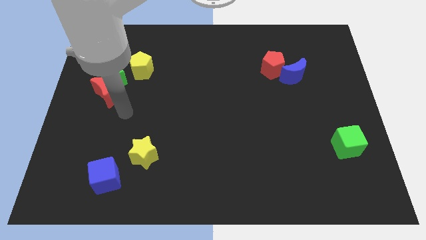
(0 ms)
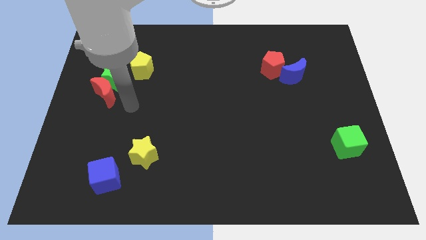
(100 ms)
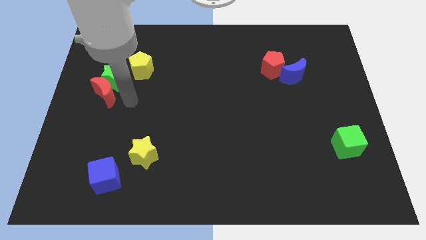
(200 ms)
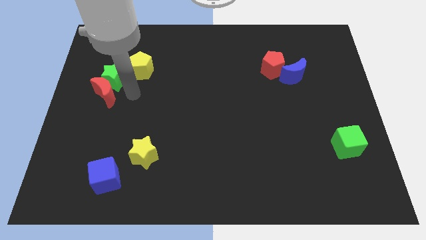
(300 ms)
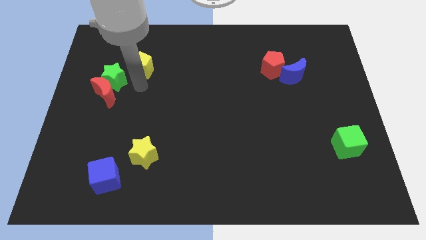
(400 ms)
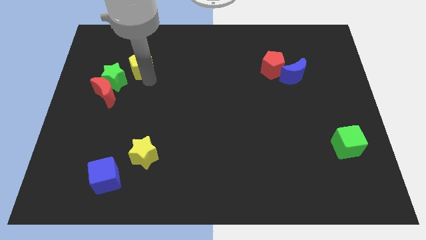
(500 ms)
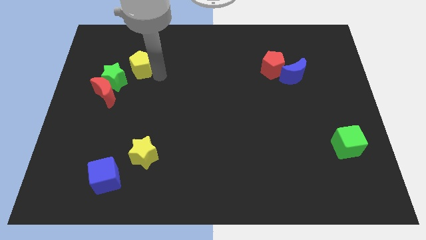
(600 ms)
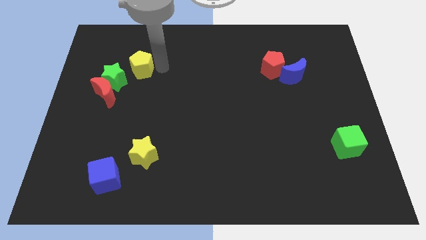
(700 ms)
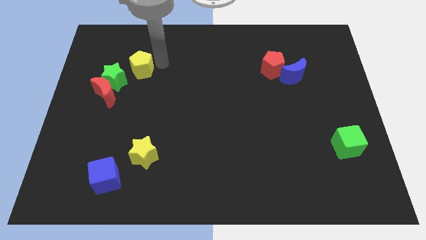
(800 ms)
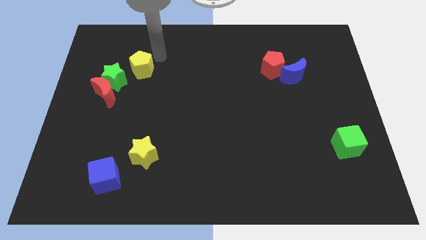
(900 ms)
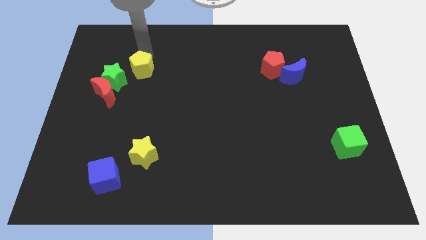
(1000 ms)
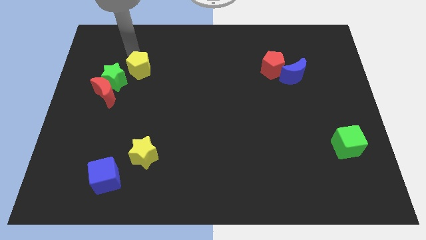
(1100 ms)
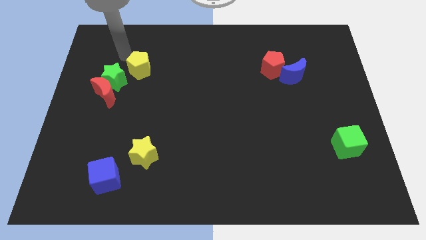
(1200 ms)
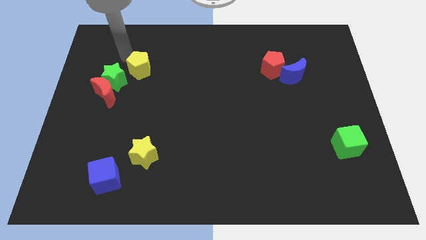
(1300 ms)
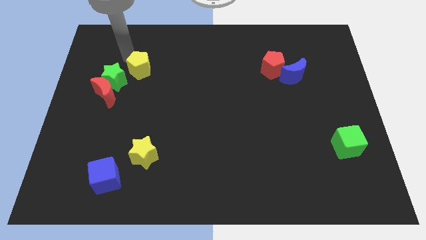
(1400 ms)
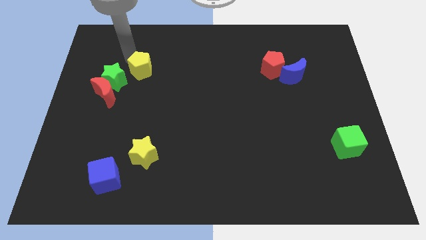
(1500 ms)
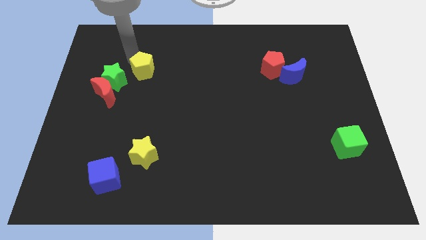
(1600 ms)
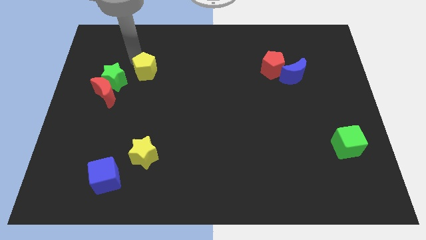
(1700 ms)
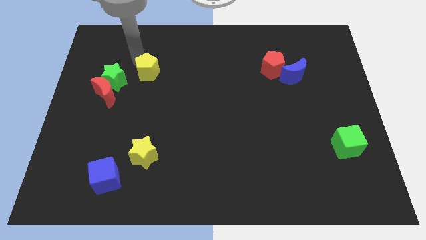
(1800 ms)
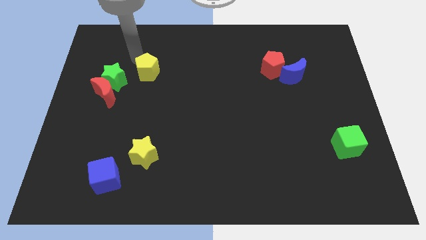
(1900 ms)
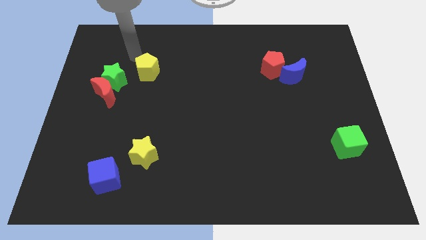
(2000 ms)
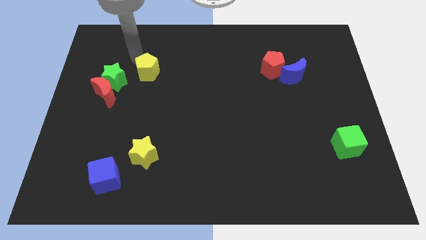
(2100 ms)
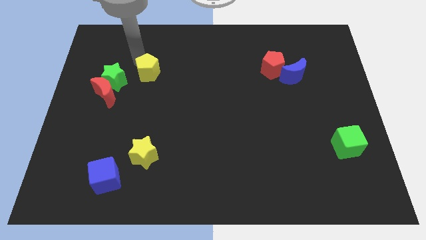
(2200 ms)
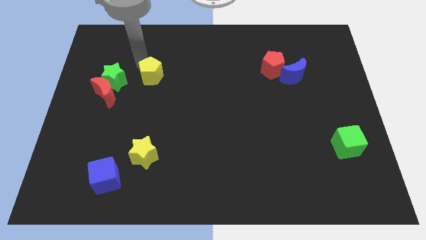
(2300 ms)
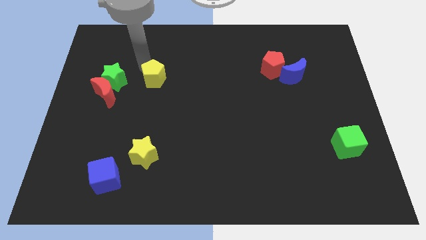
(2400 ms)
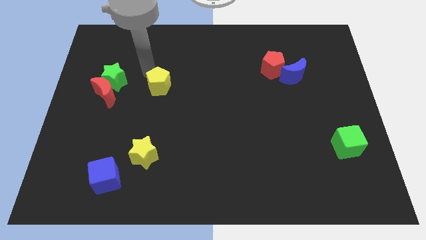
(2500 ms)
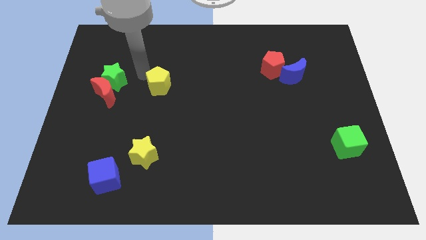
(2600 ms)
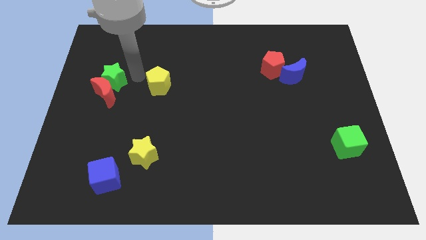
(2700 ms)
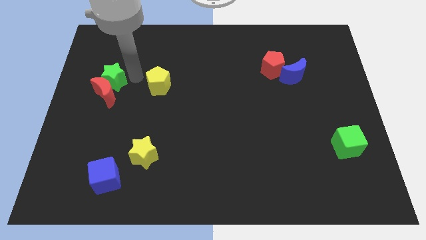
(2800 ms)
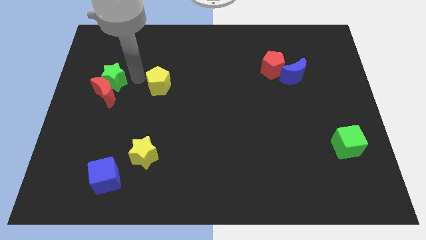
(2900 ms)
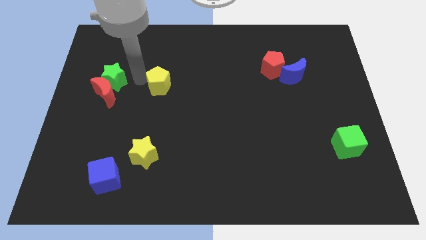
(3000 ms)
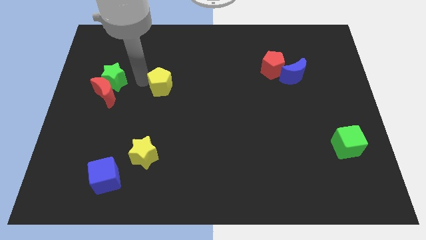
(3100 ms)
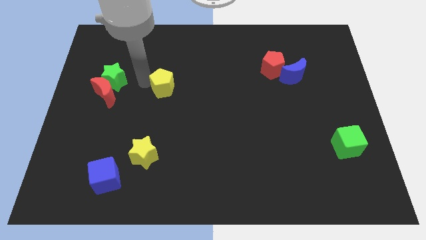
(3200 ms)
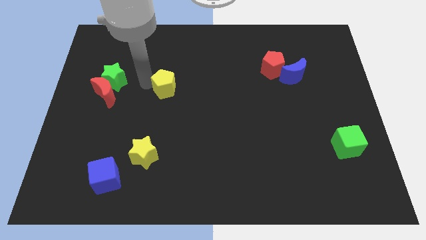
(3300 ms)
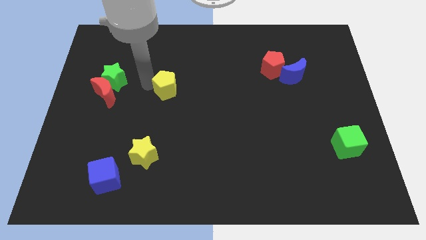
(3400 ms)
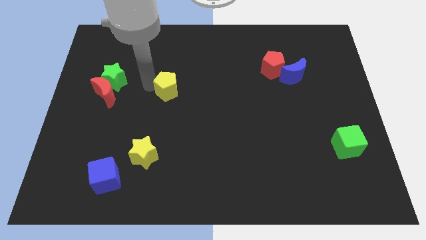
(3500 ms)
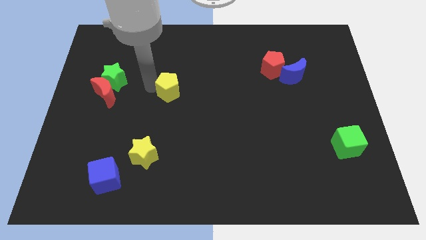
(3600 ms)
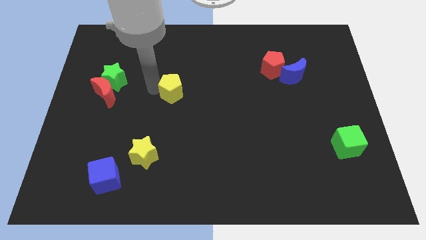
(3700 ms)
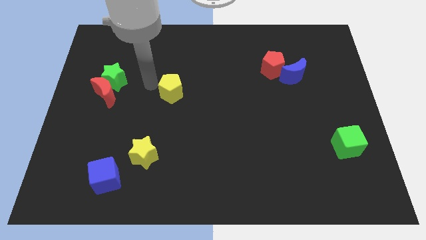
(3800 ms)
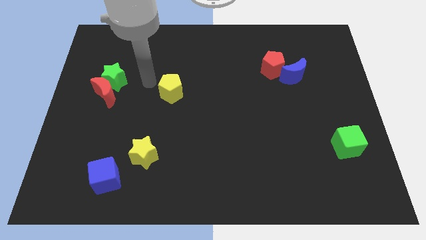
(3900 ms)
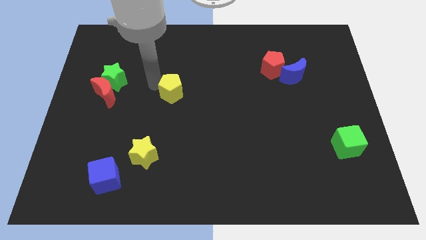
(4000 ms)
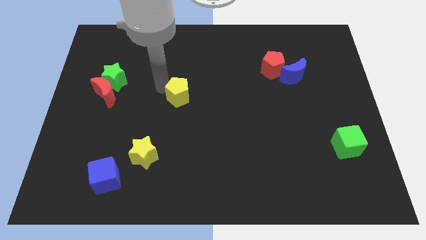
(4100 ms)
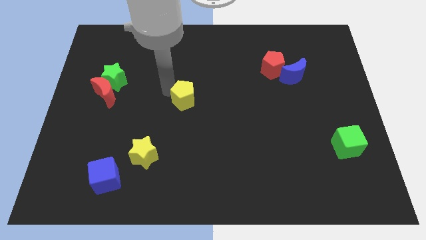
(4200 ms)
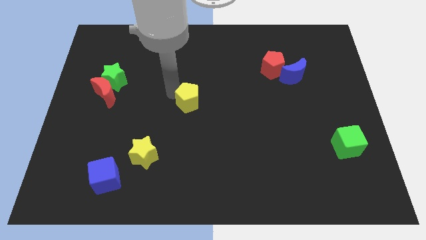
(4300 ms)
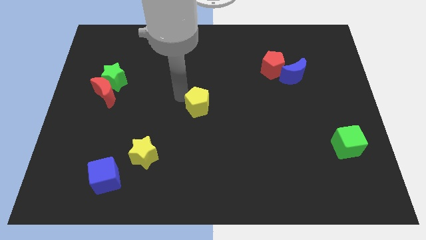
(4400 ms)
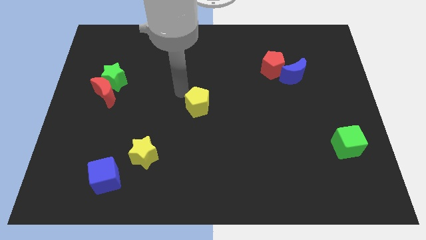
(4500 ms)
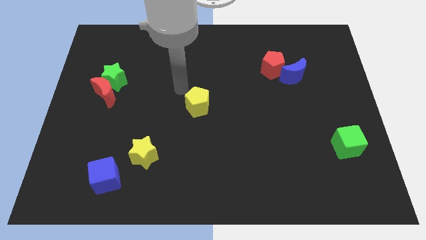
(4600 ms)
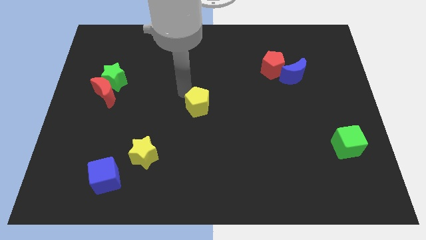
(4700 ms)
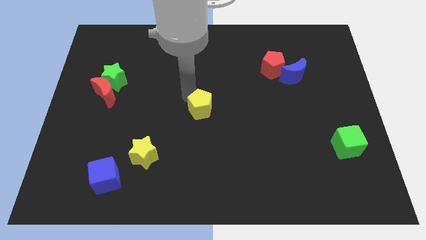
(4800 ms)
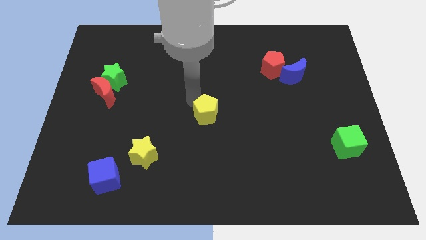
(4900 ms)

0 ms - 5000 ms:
slide the yellow pentagon down and then to the right

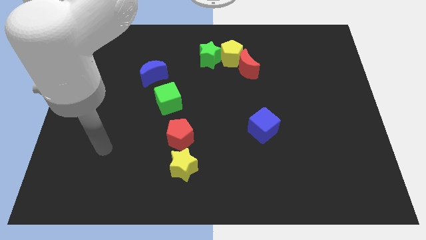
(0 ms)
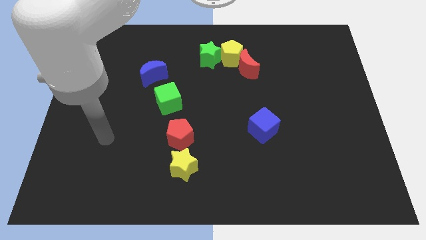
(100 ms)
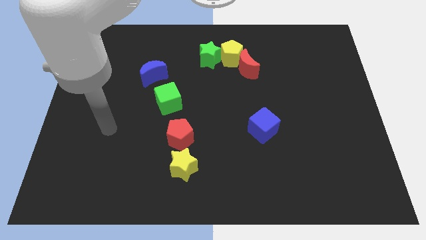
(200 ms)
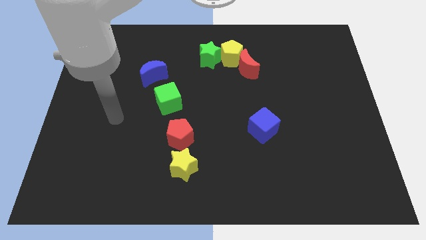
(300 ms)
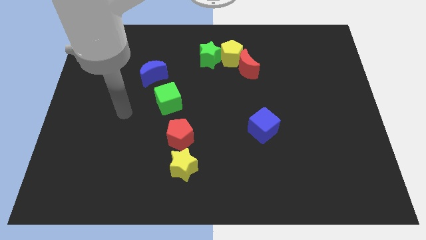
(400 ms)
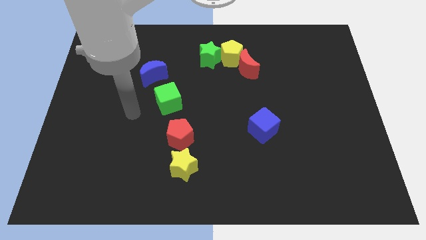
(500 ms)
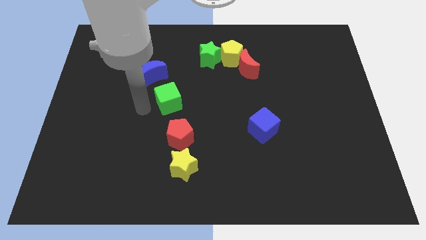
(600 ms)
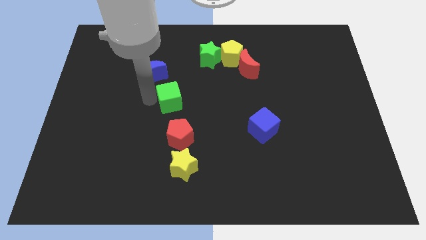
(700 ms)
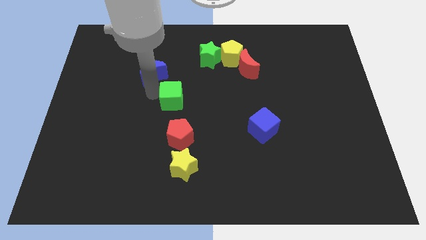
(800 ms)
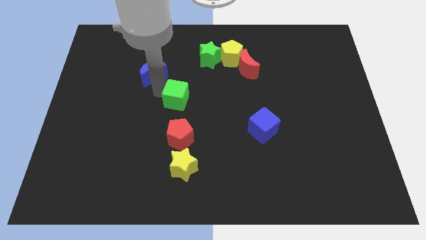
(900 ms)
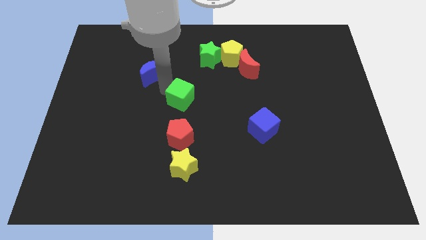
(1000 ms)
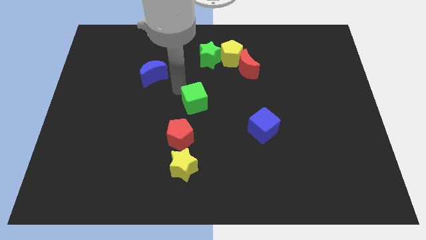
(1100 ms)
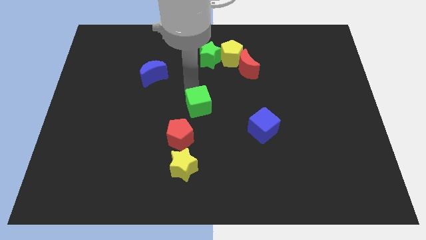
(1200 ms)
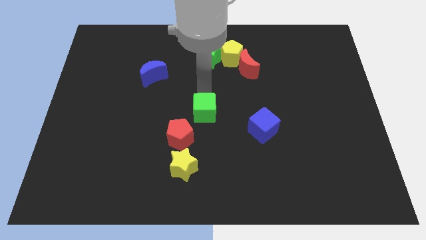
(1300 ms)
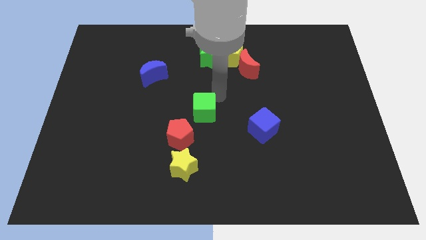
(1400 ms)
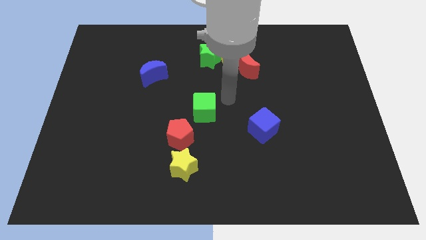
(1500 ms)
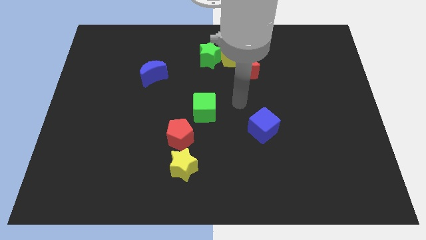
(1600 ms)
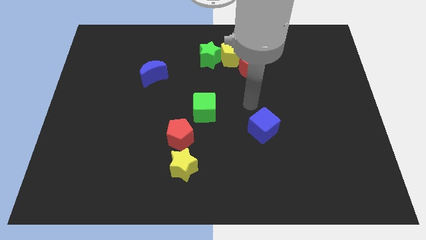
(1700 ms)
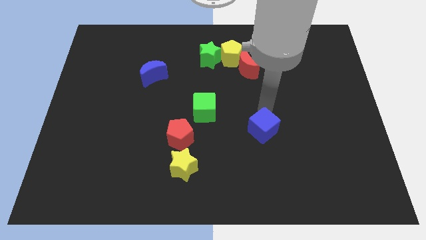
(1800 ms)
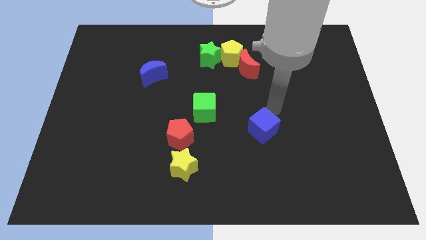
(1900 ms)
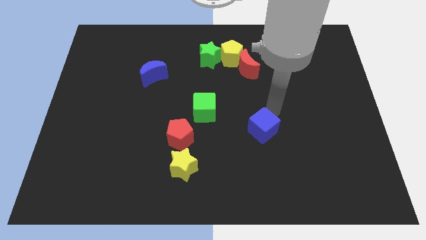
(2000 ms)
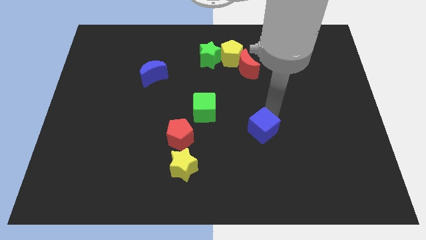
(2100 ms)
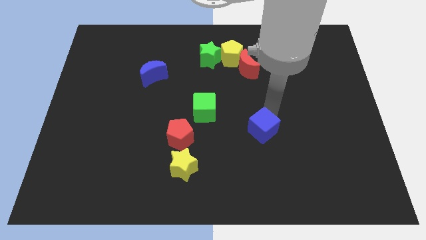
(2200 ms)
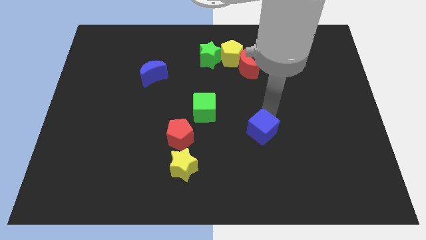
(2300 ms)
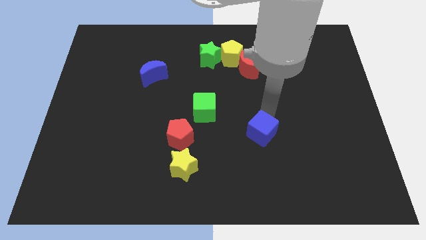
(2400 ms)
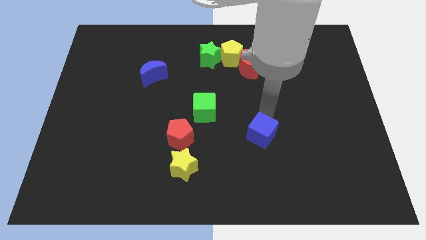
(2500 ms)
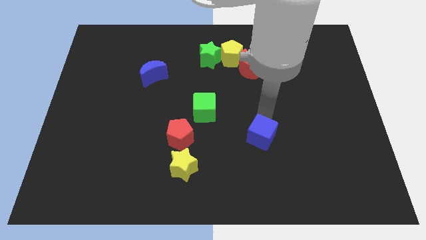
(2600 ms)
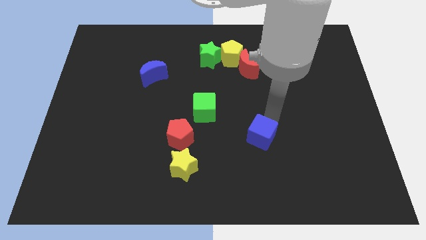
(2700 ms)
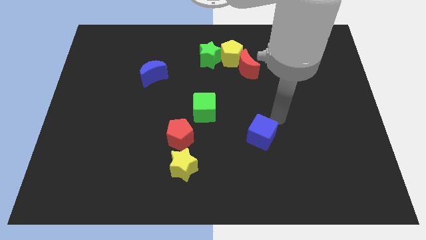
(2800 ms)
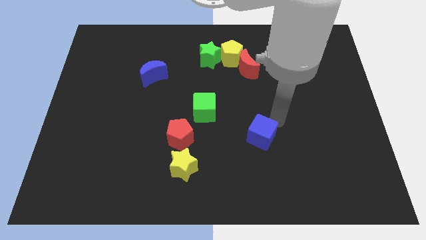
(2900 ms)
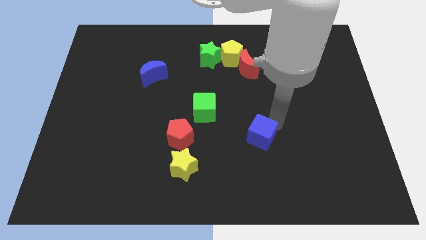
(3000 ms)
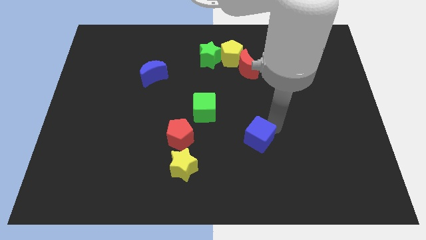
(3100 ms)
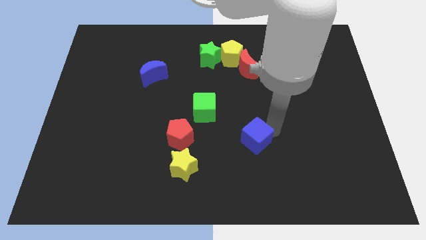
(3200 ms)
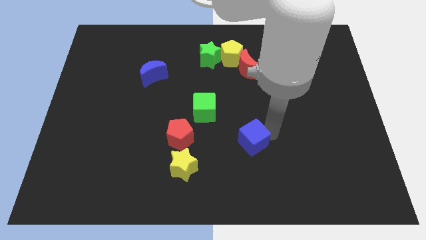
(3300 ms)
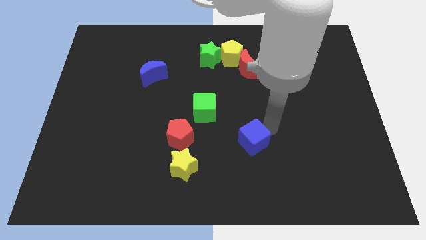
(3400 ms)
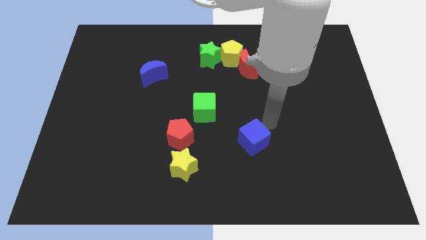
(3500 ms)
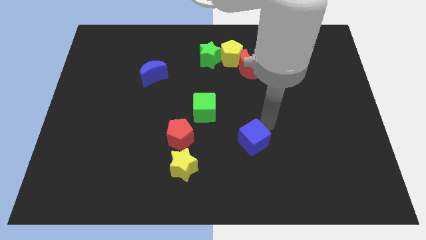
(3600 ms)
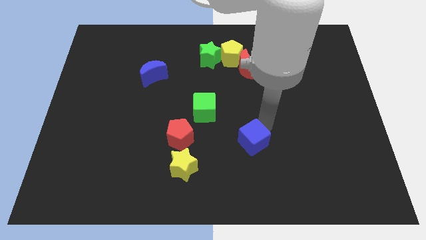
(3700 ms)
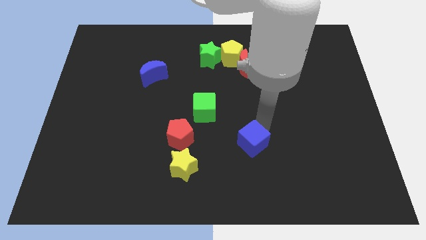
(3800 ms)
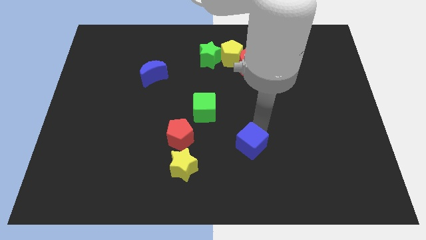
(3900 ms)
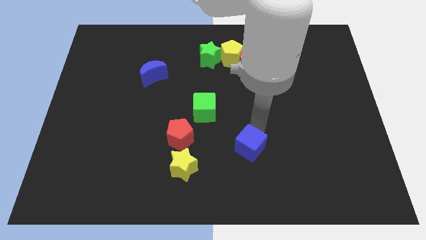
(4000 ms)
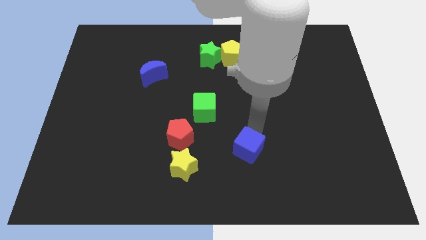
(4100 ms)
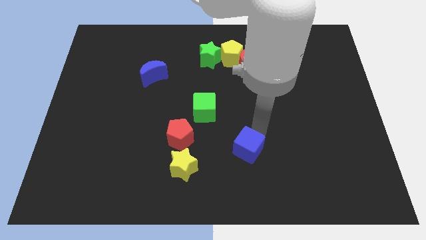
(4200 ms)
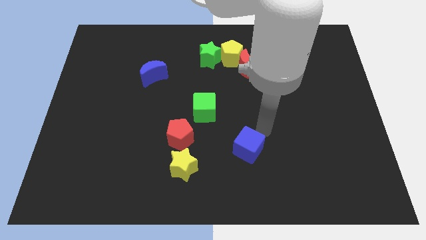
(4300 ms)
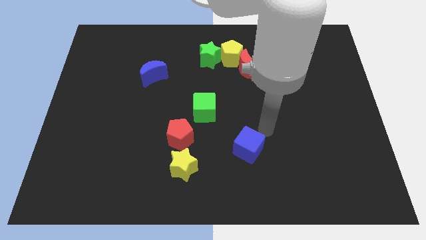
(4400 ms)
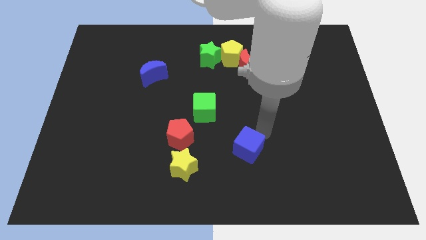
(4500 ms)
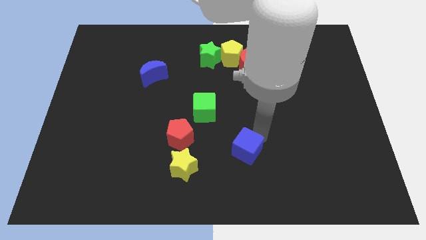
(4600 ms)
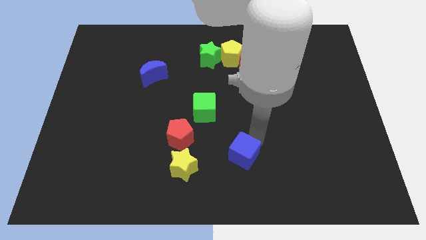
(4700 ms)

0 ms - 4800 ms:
push the blue cube slightly down and to the left diagonally
